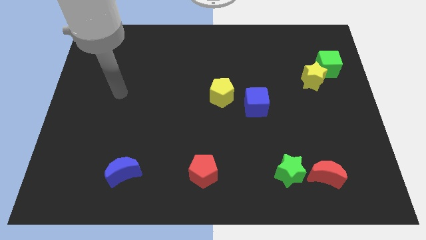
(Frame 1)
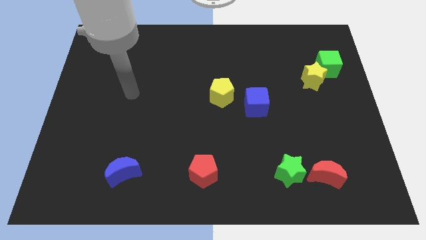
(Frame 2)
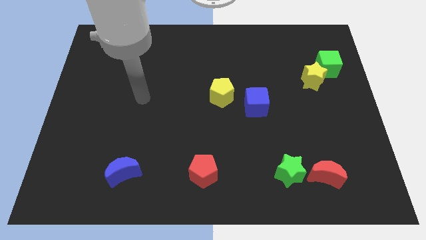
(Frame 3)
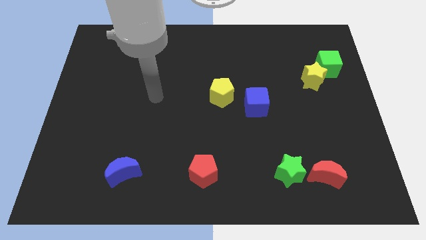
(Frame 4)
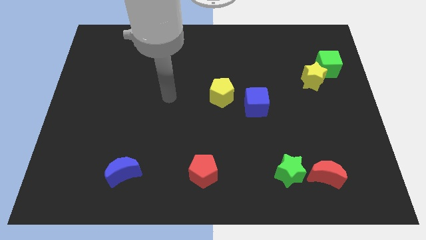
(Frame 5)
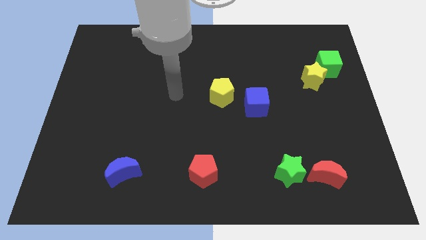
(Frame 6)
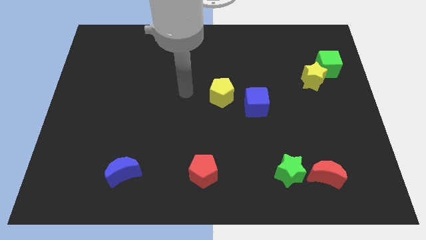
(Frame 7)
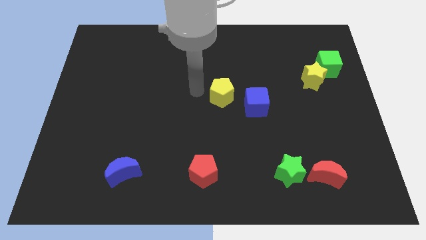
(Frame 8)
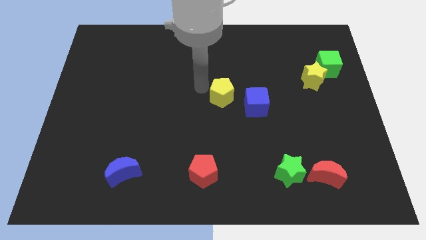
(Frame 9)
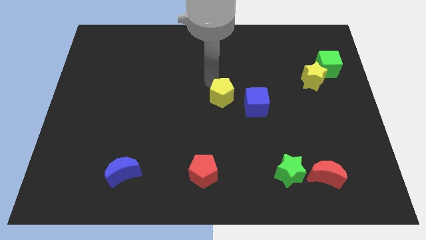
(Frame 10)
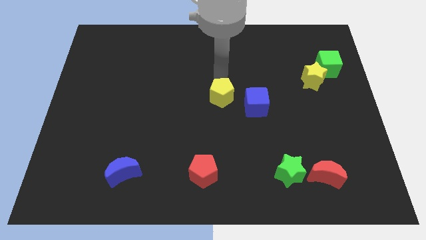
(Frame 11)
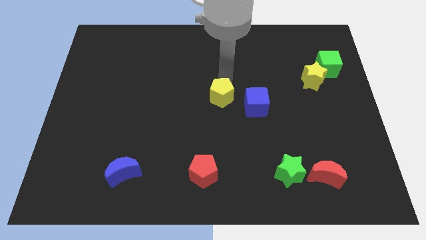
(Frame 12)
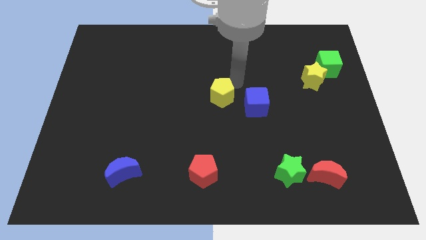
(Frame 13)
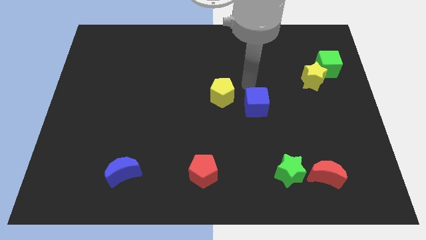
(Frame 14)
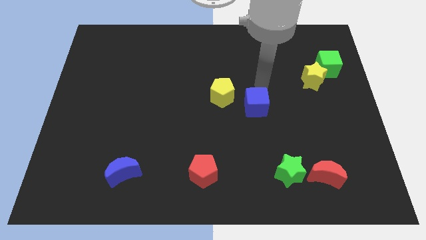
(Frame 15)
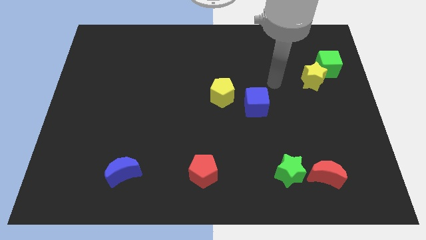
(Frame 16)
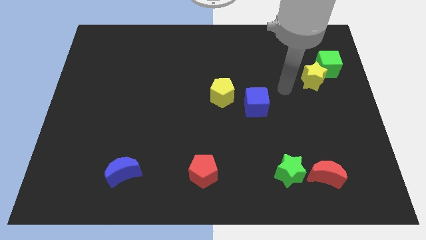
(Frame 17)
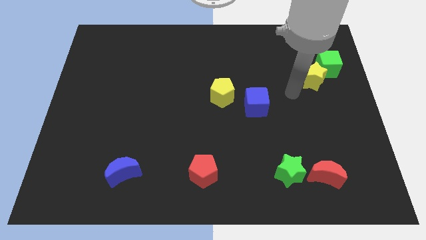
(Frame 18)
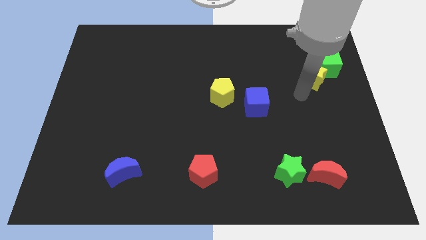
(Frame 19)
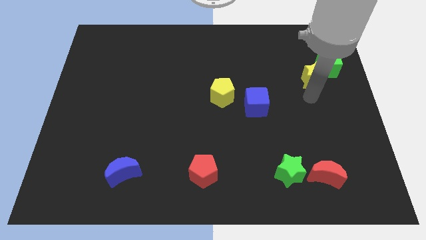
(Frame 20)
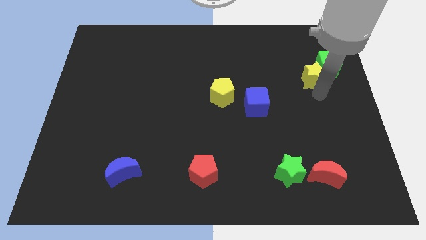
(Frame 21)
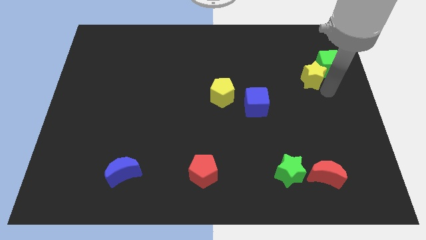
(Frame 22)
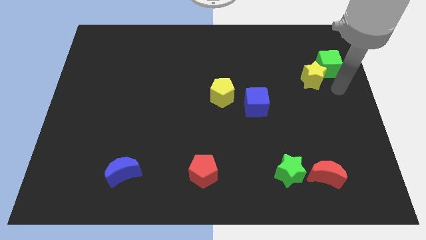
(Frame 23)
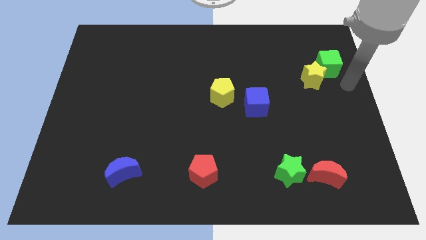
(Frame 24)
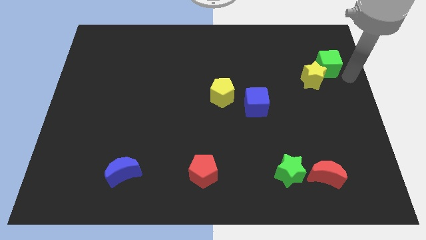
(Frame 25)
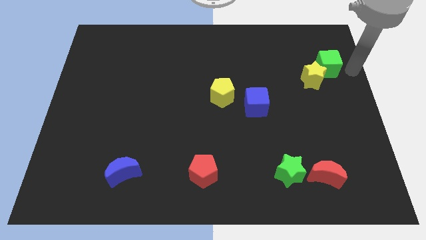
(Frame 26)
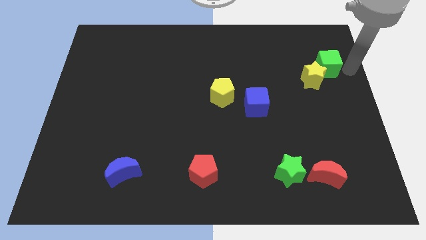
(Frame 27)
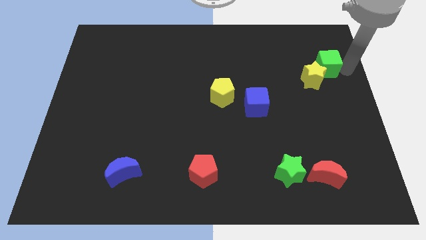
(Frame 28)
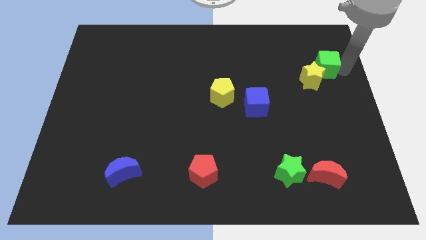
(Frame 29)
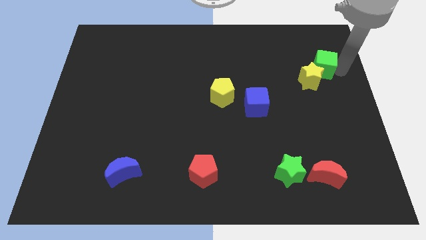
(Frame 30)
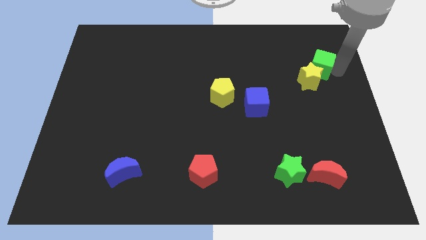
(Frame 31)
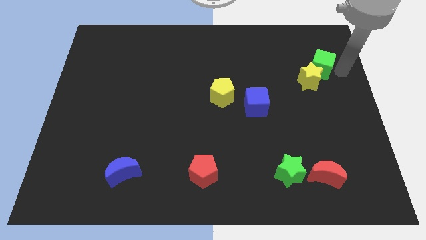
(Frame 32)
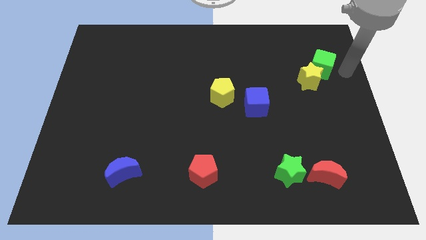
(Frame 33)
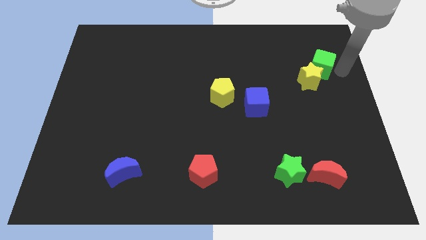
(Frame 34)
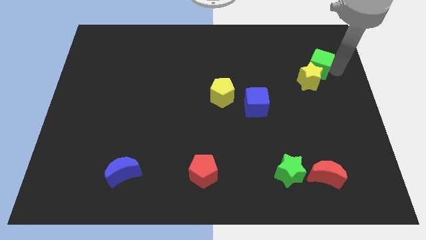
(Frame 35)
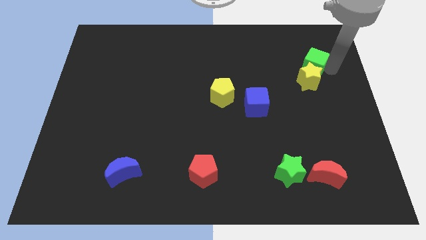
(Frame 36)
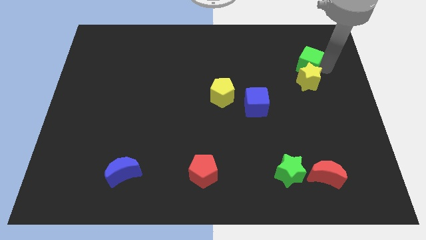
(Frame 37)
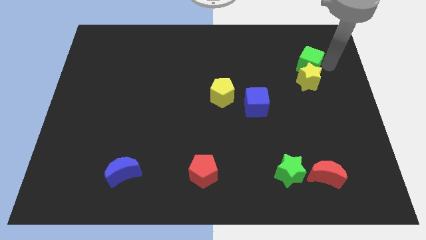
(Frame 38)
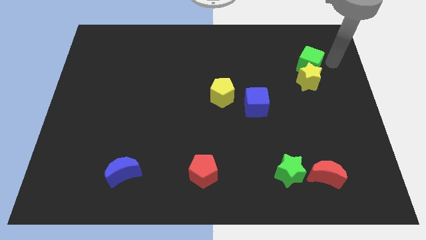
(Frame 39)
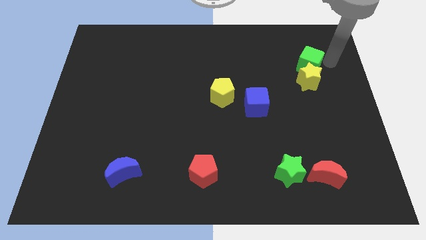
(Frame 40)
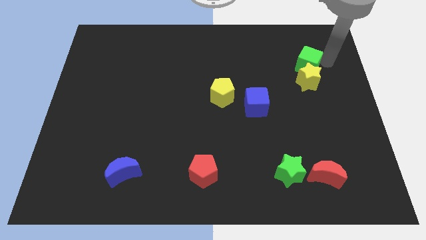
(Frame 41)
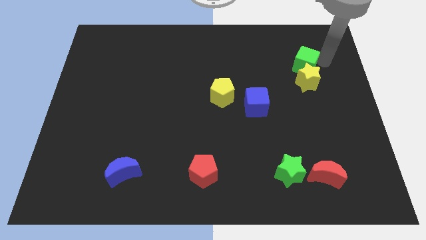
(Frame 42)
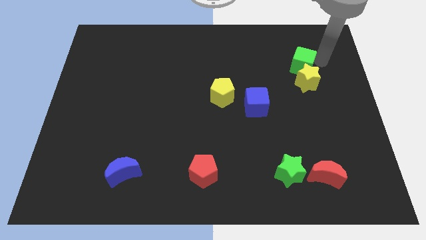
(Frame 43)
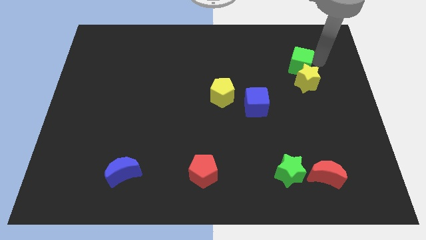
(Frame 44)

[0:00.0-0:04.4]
push the green cube to the left somewhat

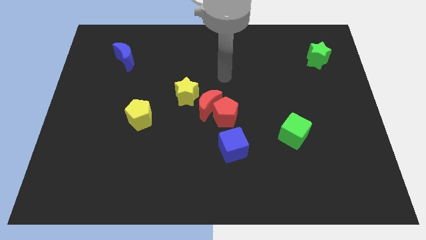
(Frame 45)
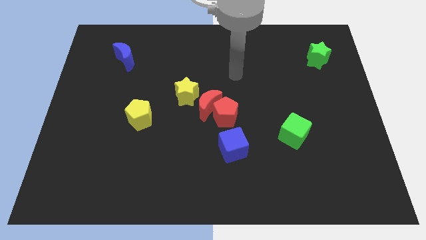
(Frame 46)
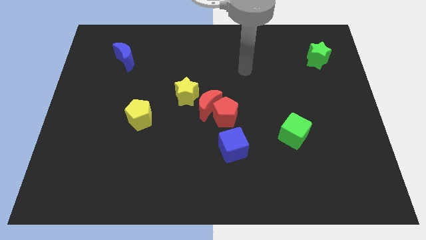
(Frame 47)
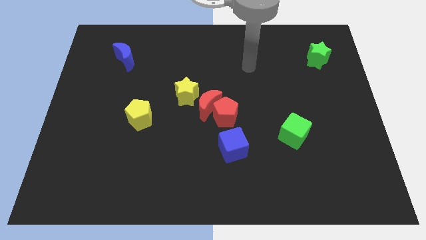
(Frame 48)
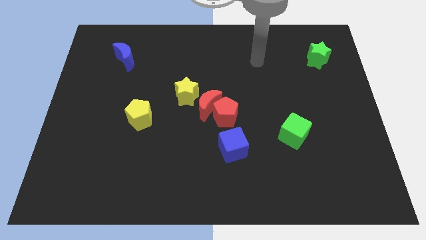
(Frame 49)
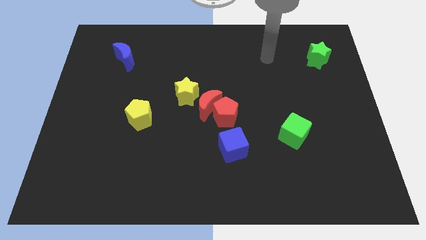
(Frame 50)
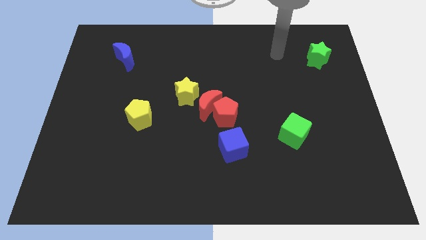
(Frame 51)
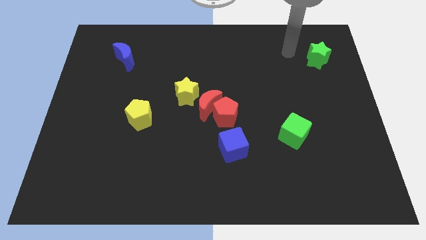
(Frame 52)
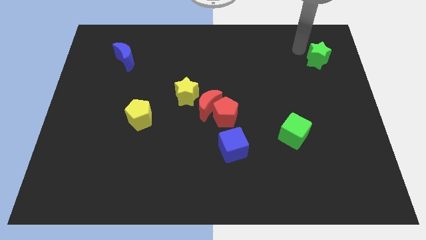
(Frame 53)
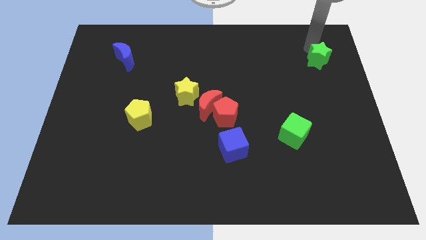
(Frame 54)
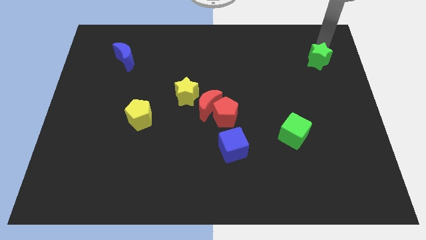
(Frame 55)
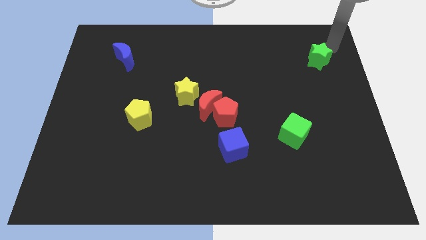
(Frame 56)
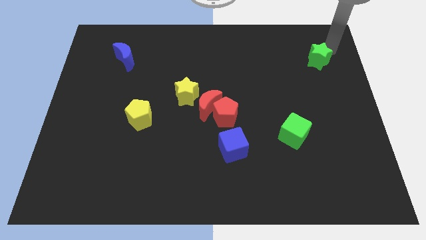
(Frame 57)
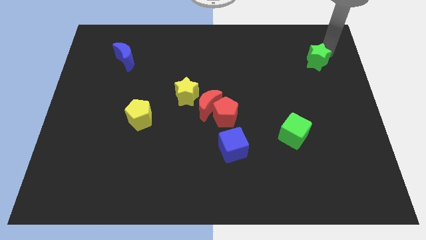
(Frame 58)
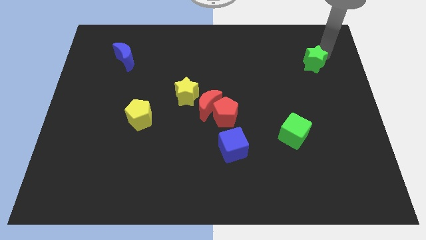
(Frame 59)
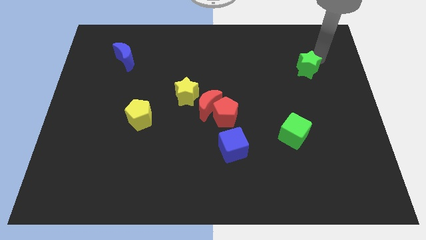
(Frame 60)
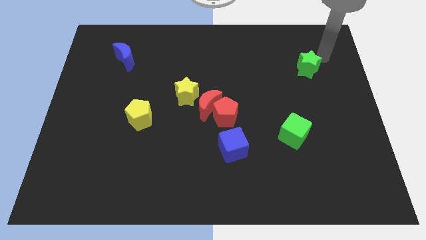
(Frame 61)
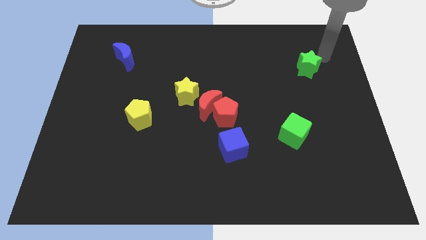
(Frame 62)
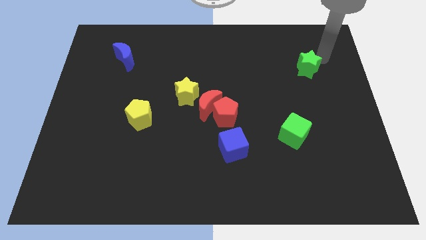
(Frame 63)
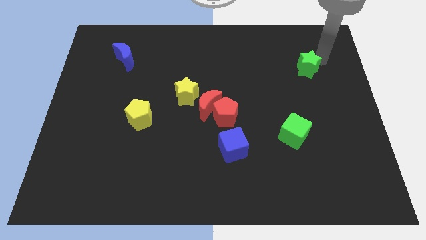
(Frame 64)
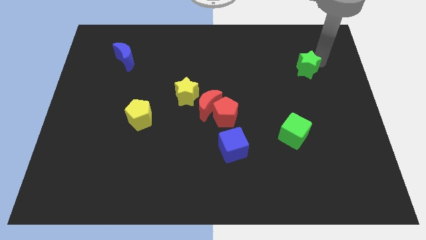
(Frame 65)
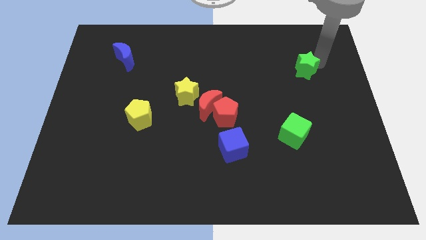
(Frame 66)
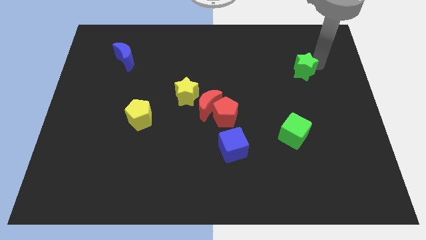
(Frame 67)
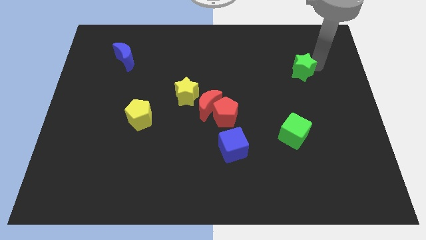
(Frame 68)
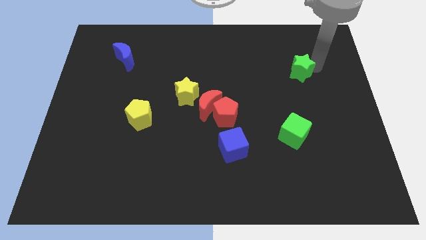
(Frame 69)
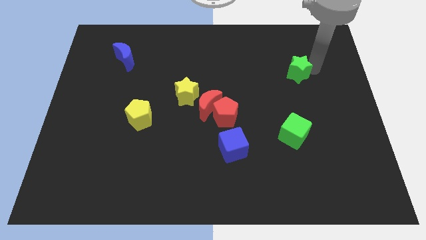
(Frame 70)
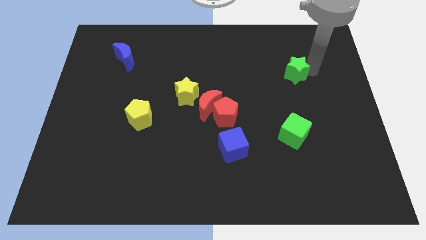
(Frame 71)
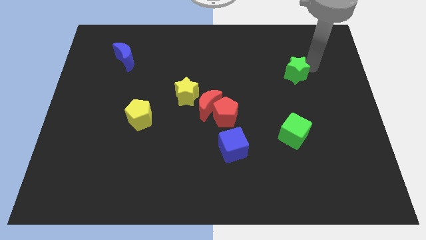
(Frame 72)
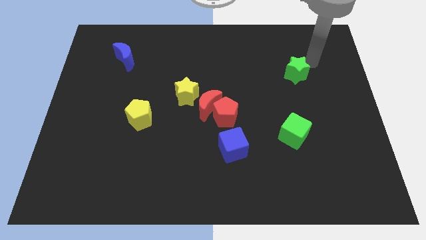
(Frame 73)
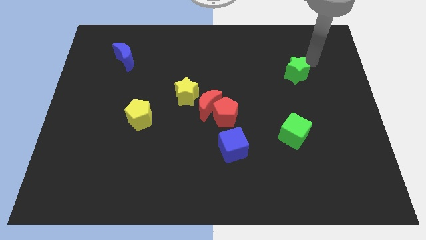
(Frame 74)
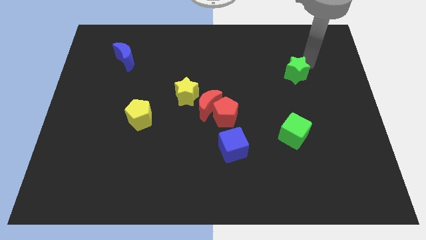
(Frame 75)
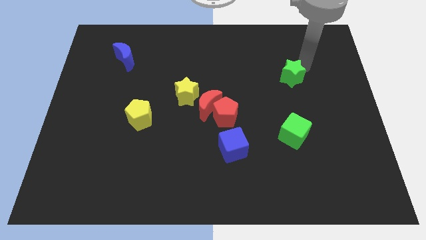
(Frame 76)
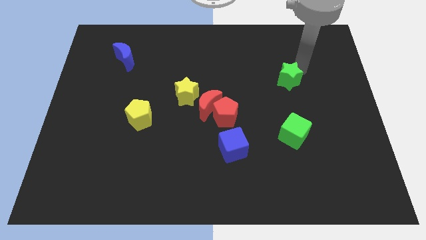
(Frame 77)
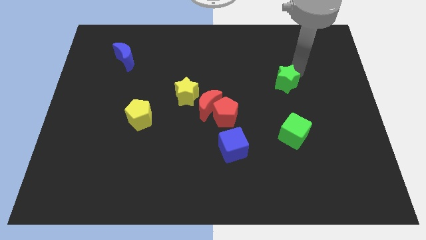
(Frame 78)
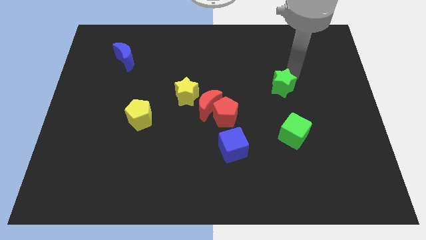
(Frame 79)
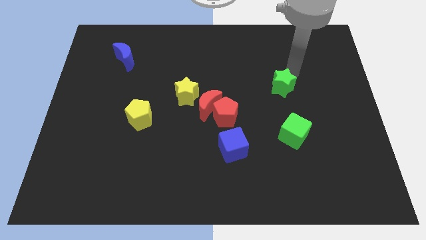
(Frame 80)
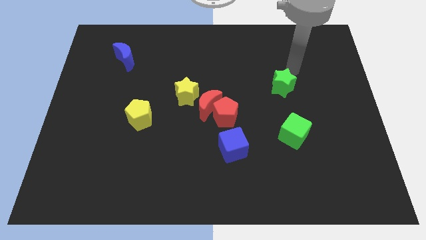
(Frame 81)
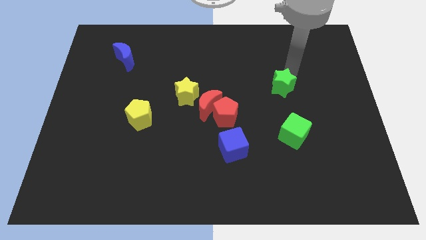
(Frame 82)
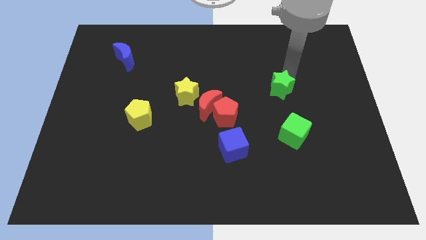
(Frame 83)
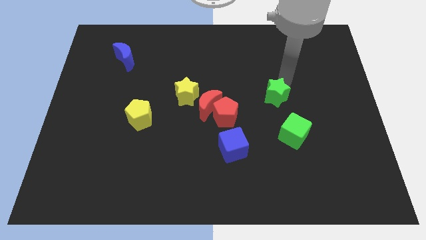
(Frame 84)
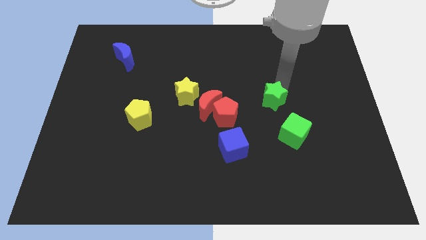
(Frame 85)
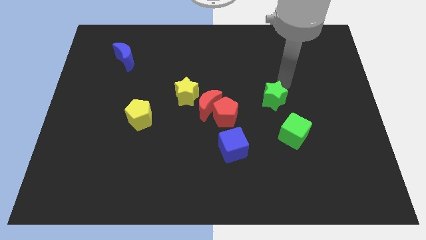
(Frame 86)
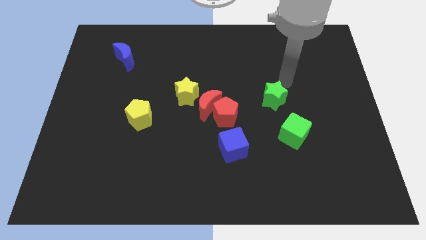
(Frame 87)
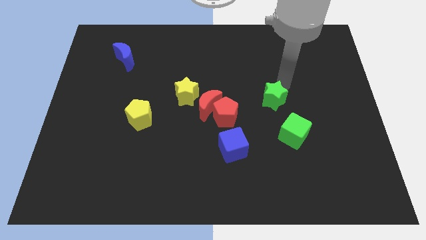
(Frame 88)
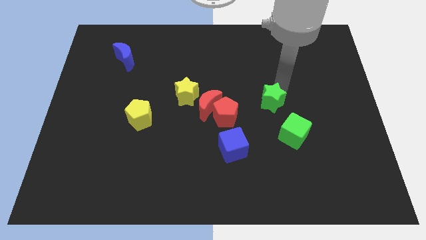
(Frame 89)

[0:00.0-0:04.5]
push the green star downwards and then to the left
